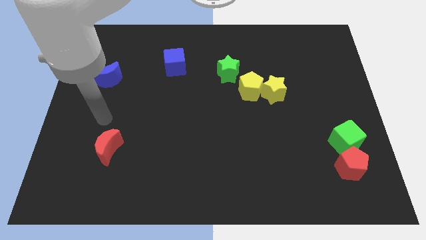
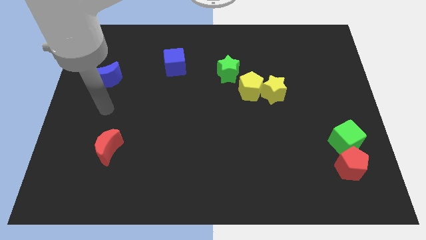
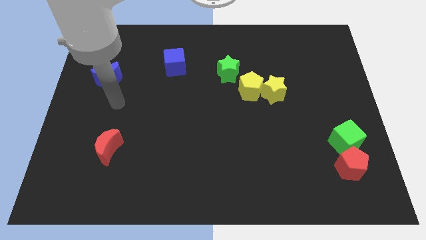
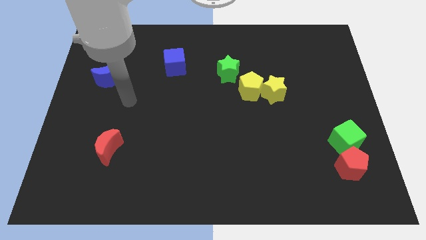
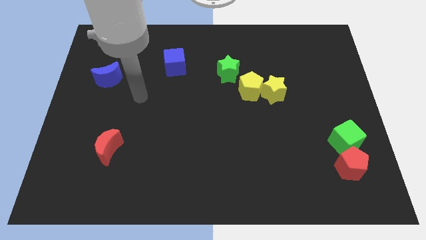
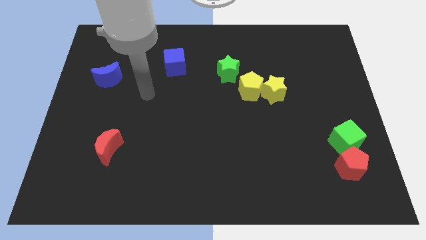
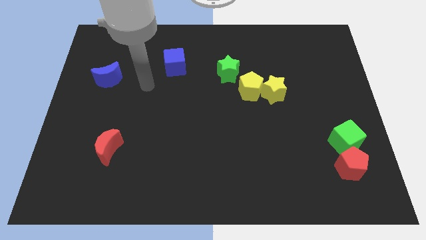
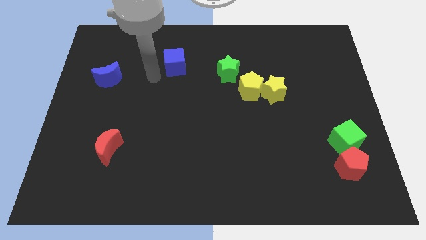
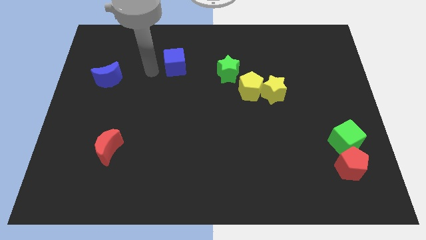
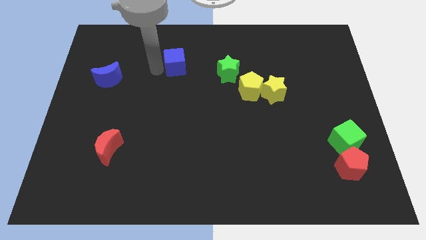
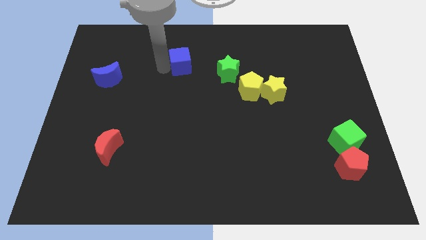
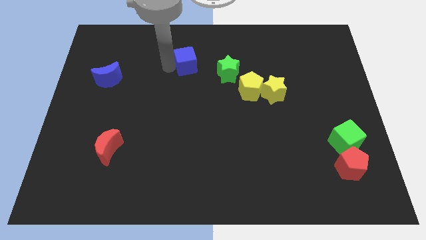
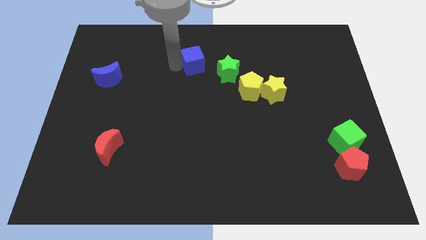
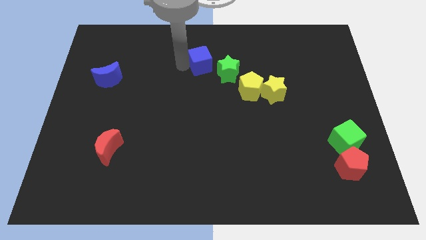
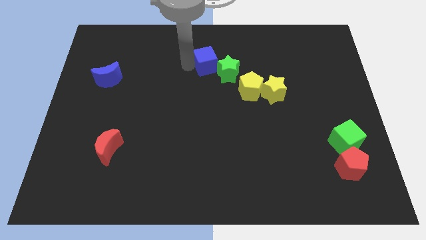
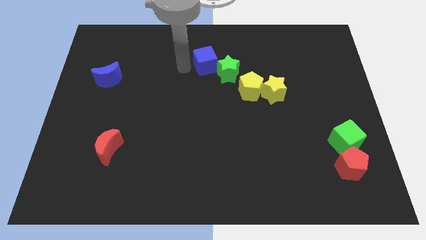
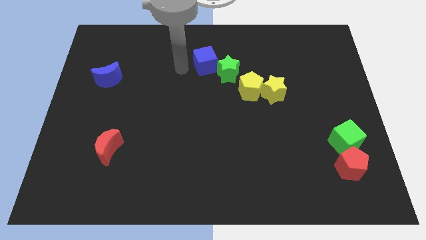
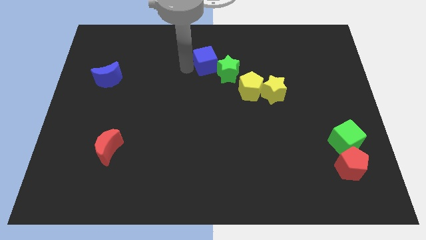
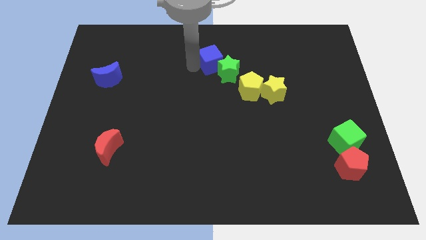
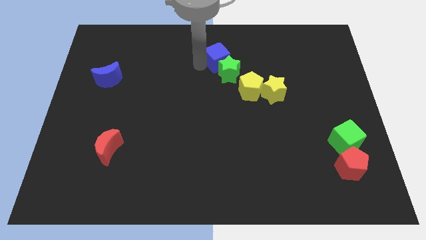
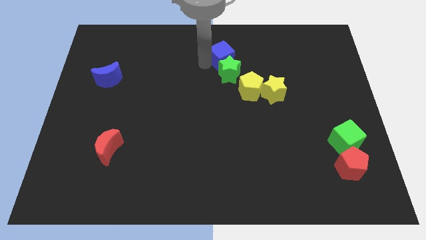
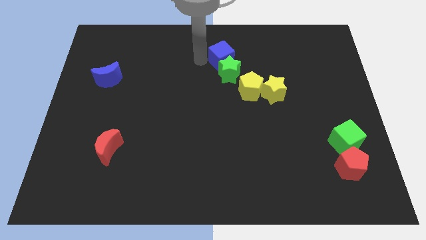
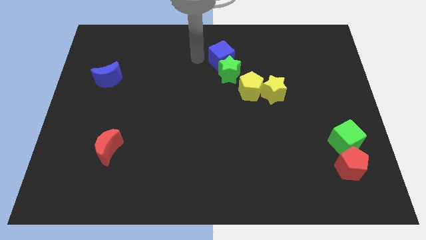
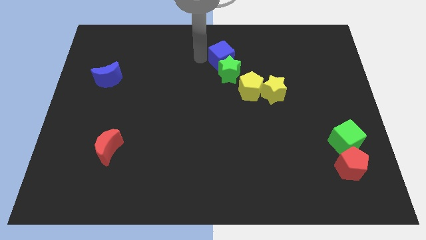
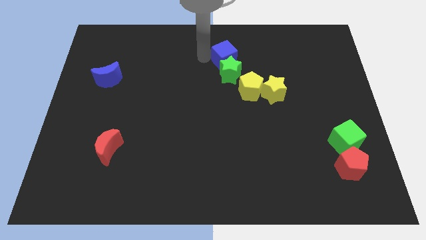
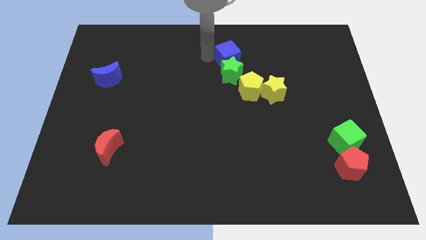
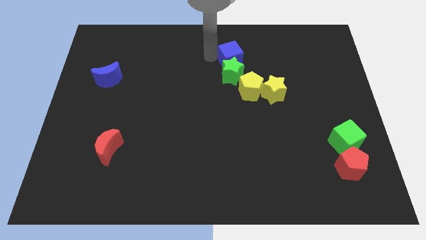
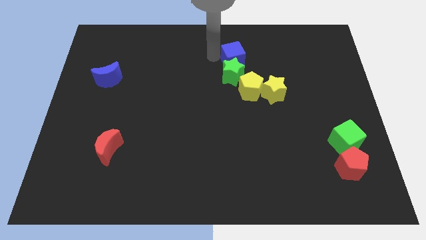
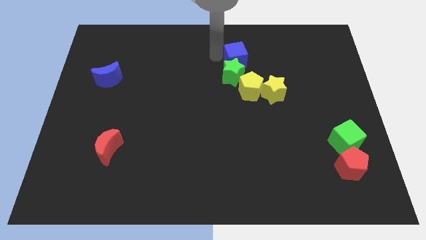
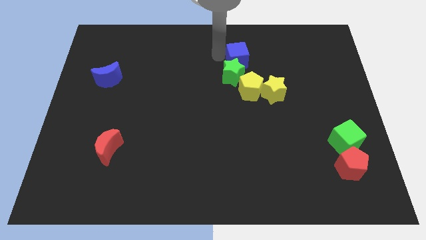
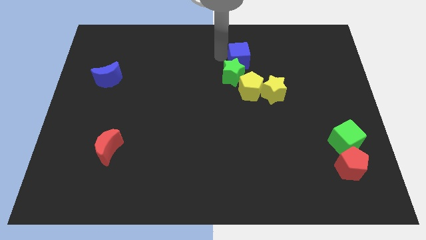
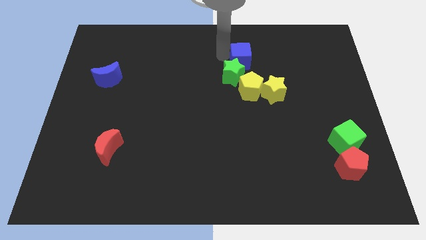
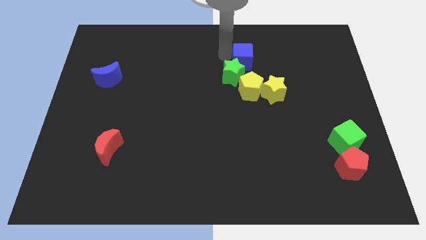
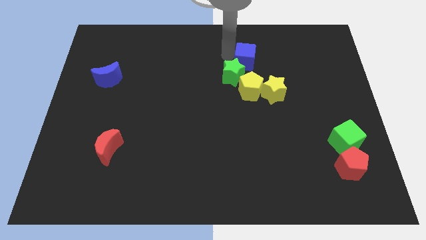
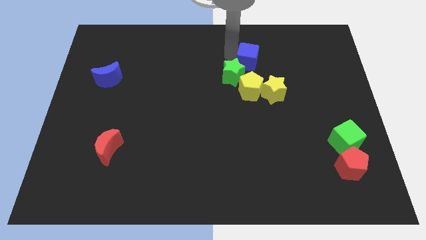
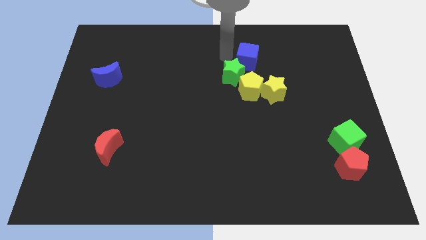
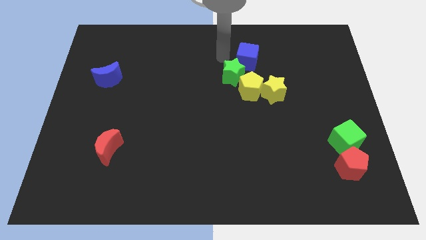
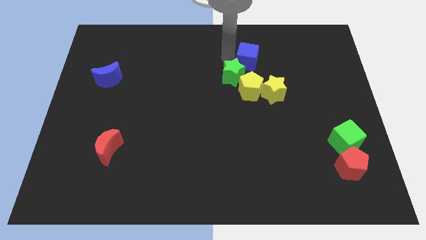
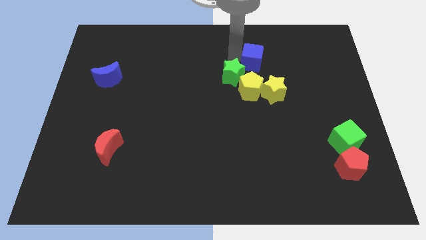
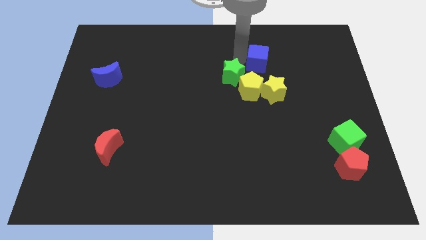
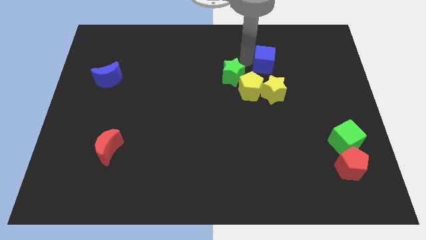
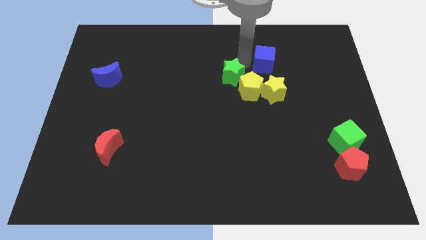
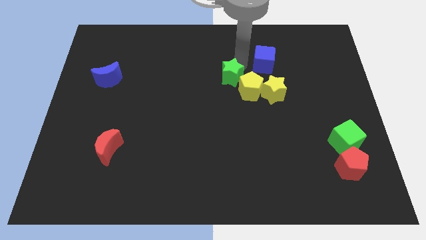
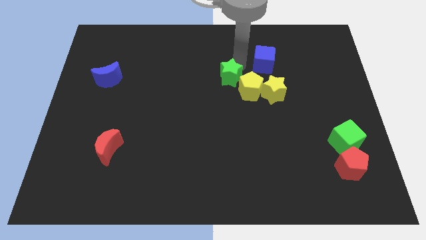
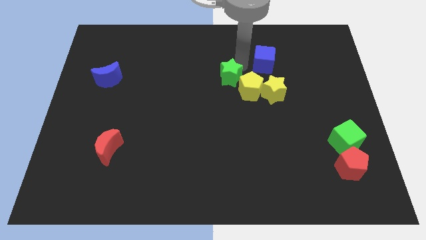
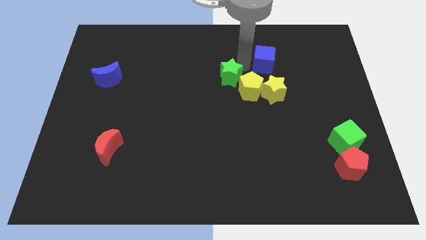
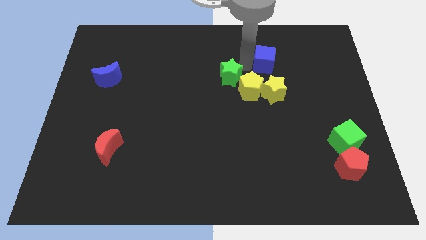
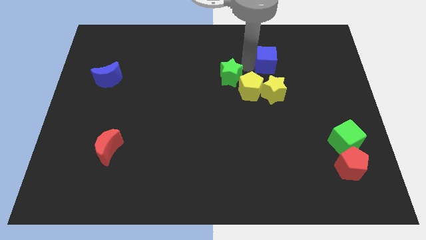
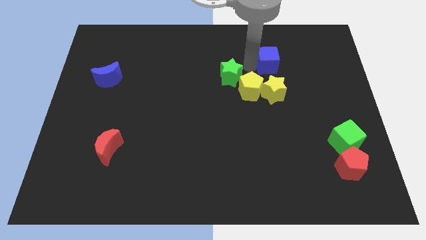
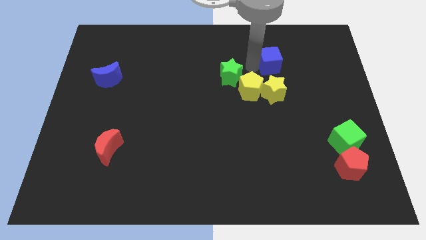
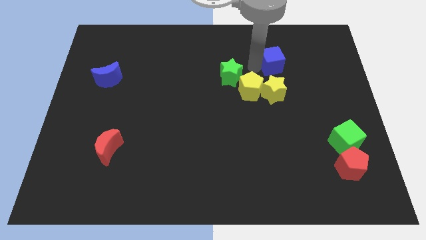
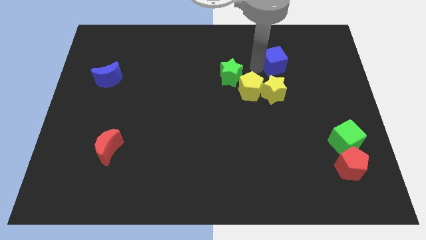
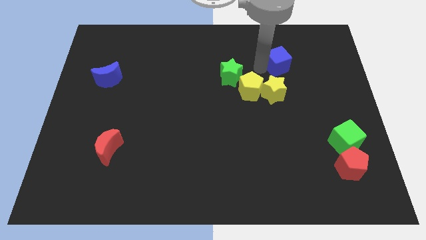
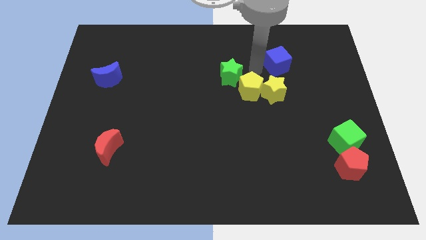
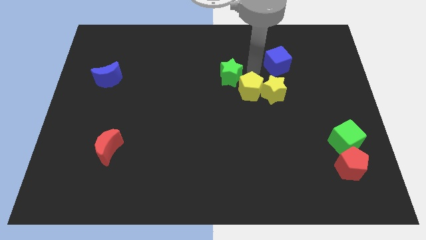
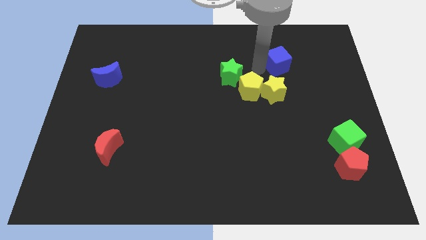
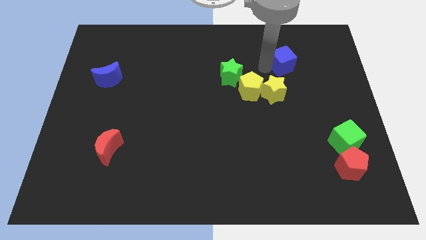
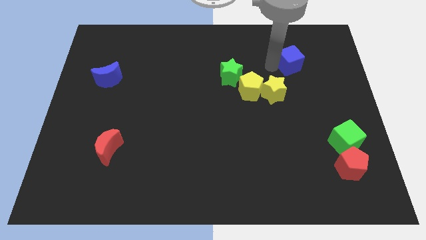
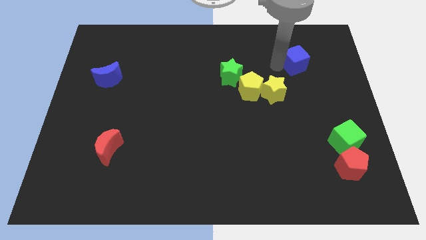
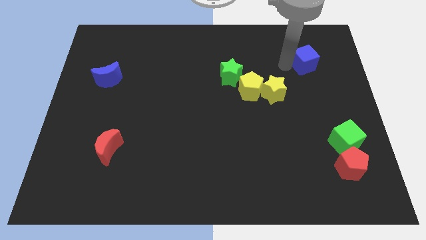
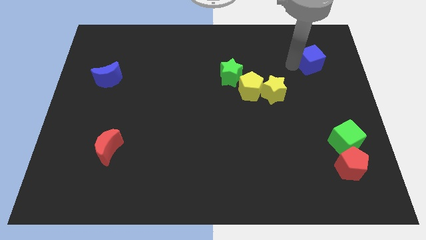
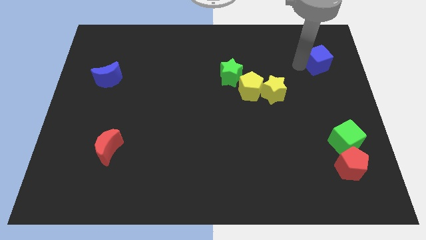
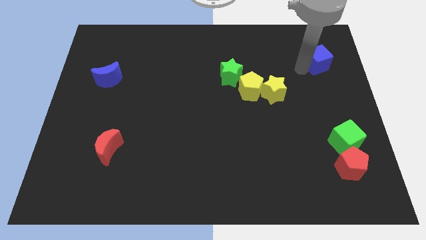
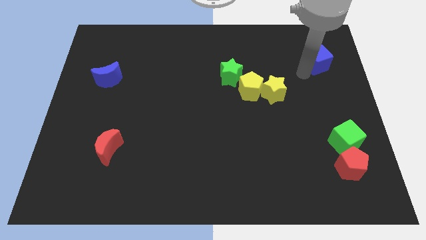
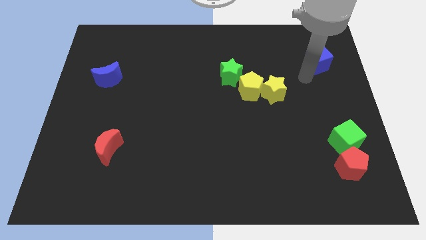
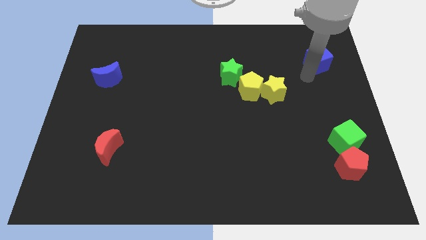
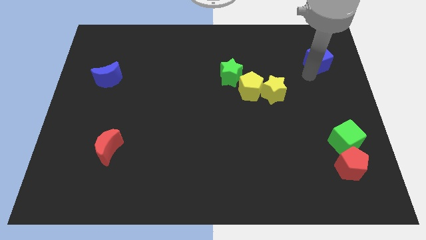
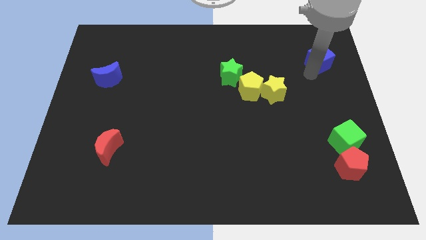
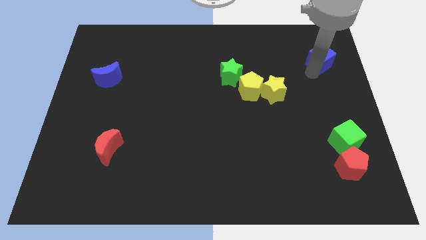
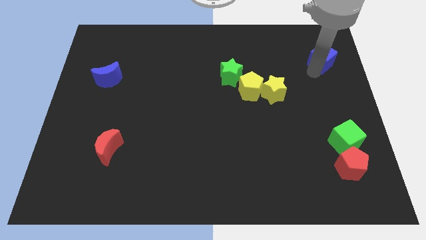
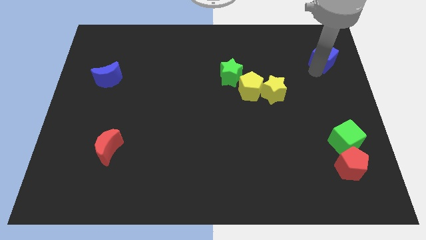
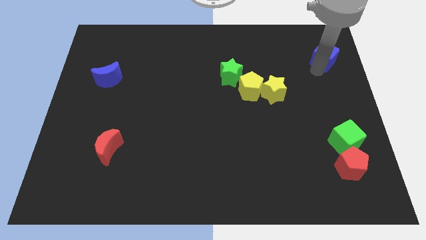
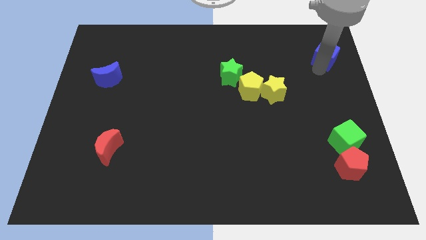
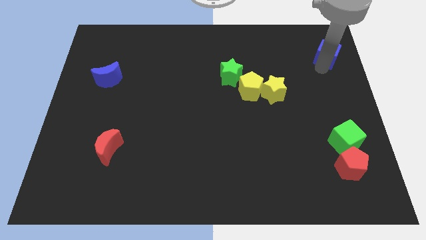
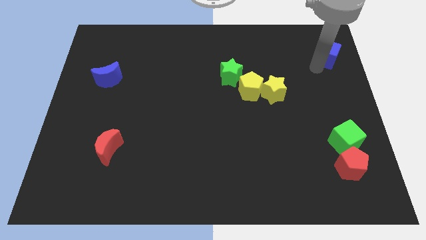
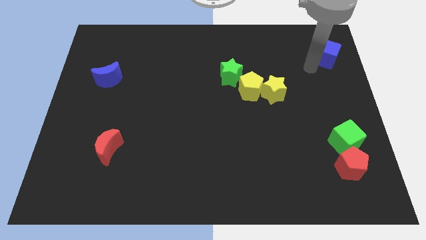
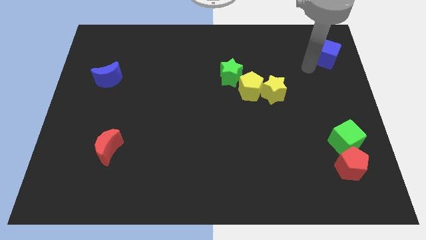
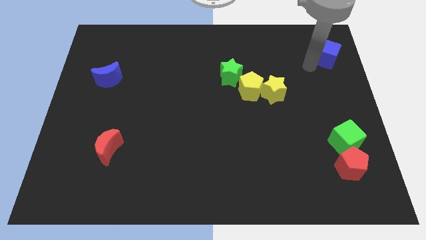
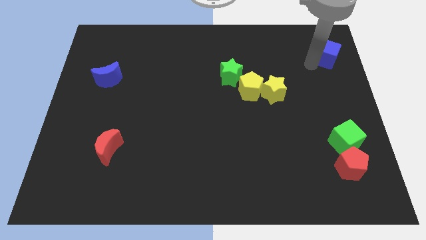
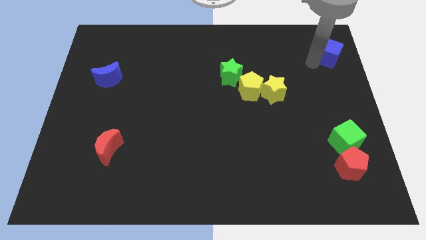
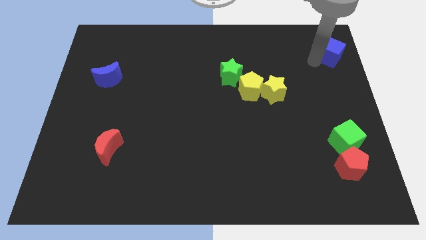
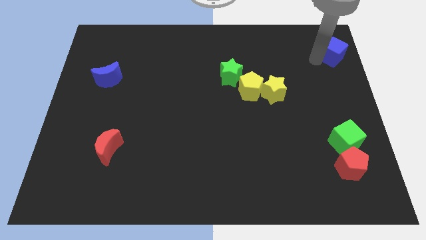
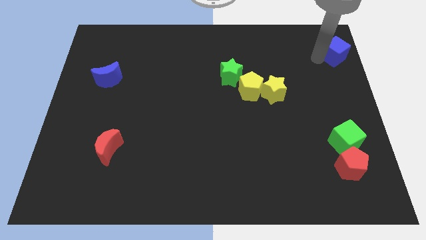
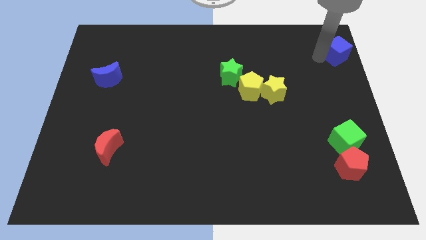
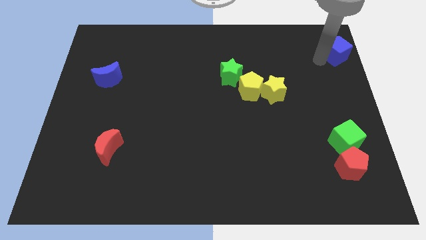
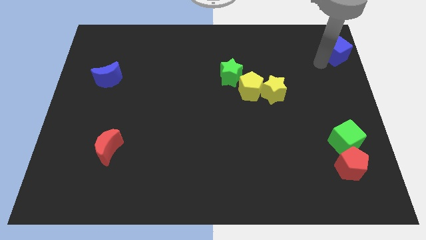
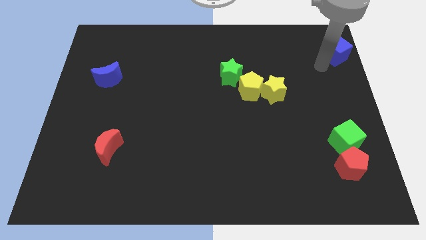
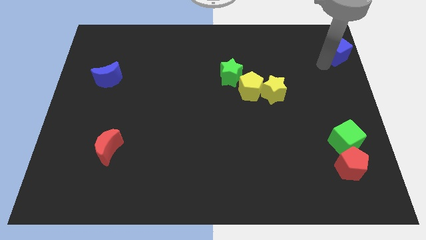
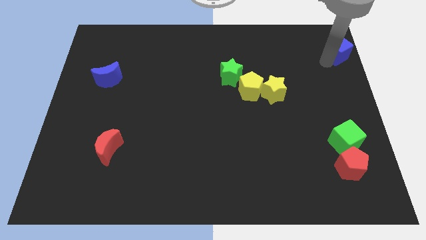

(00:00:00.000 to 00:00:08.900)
slide the blue cube to the upper right corner
